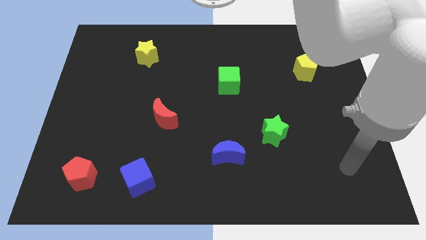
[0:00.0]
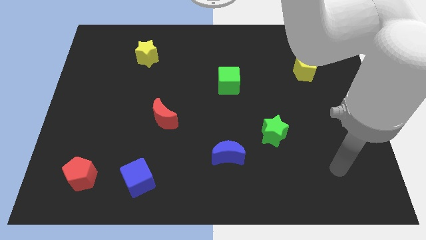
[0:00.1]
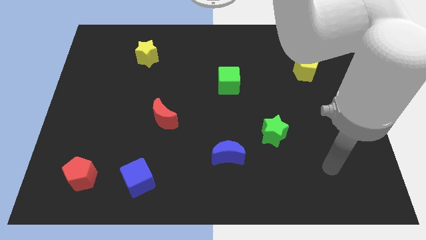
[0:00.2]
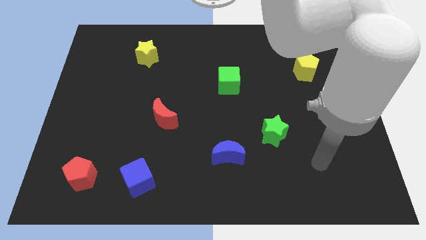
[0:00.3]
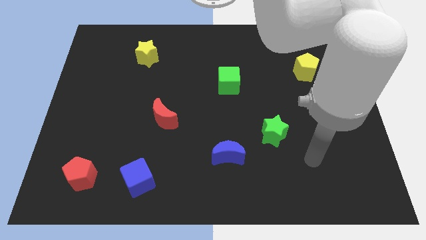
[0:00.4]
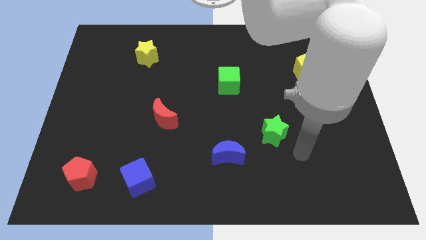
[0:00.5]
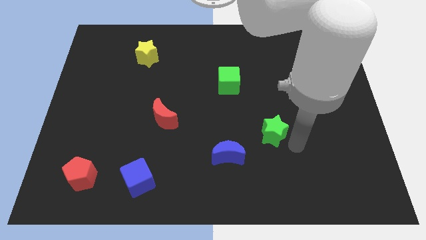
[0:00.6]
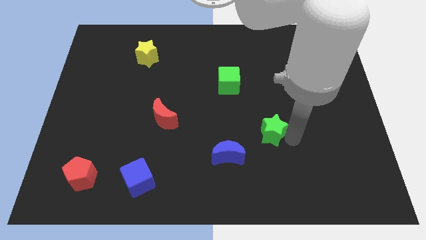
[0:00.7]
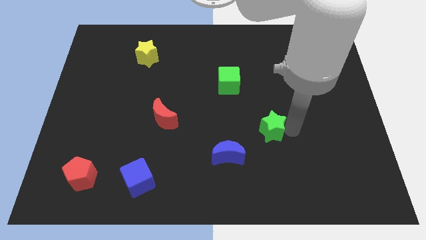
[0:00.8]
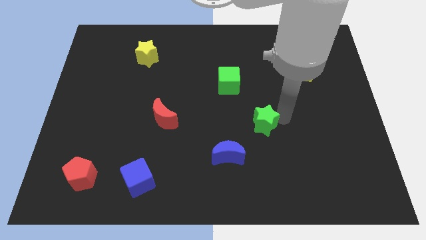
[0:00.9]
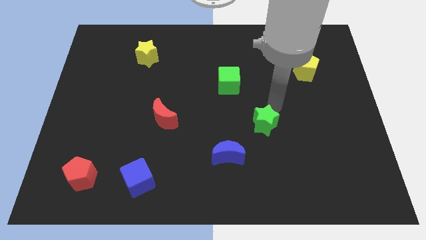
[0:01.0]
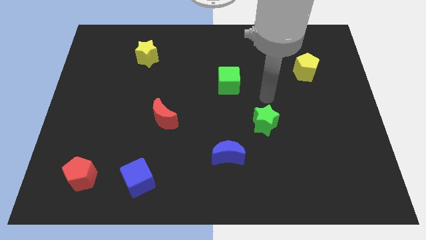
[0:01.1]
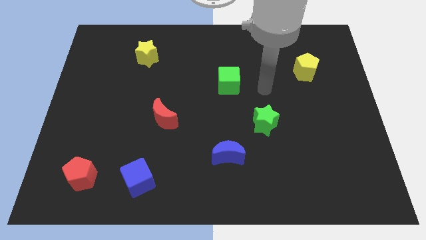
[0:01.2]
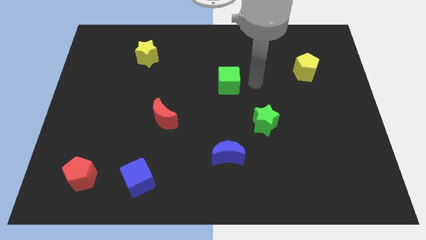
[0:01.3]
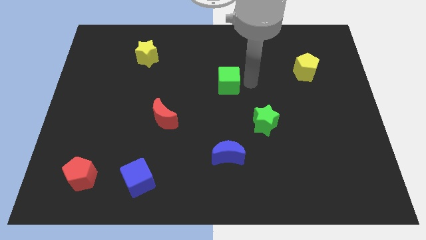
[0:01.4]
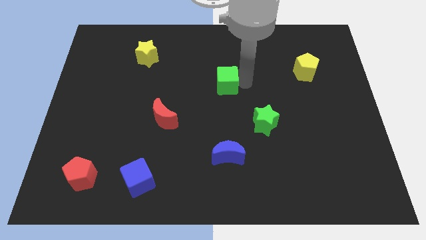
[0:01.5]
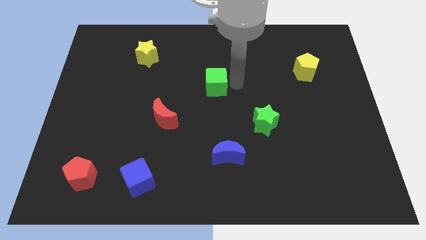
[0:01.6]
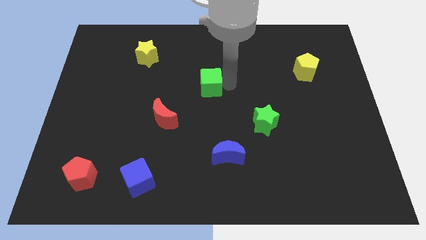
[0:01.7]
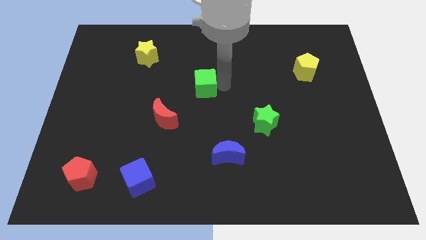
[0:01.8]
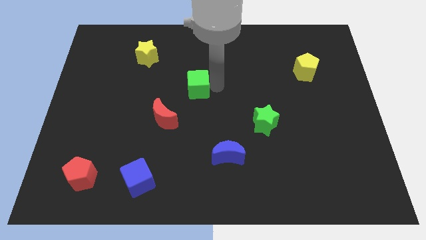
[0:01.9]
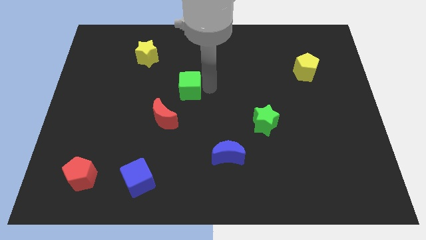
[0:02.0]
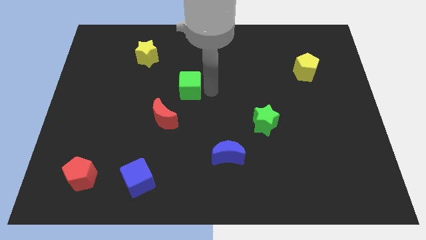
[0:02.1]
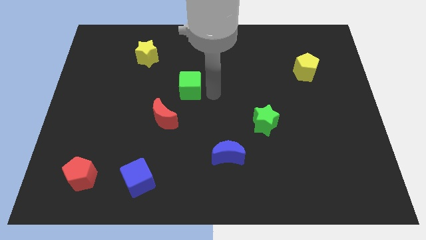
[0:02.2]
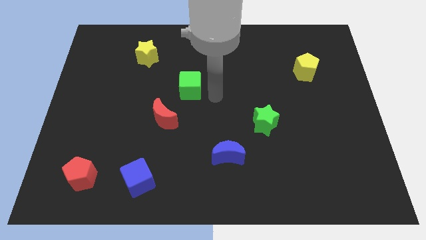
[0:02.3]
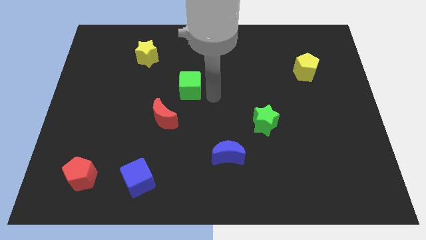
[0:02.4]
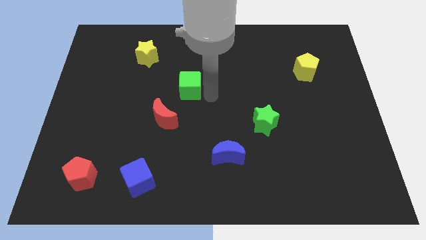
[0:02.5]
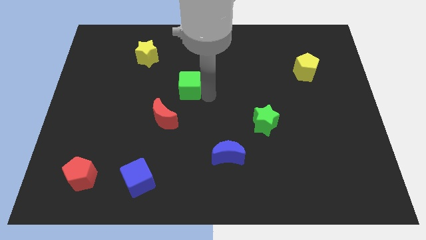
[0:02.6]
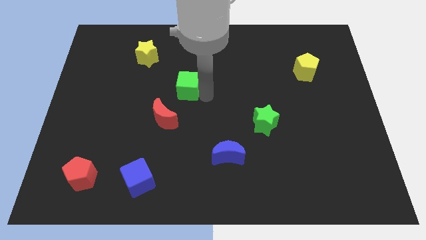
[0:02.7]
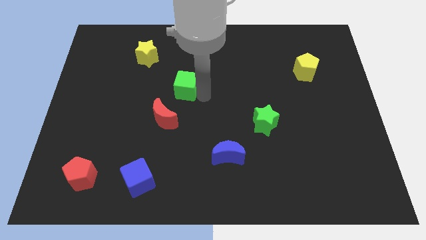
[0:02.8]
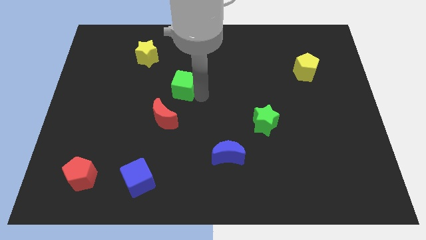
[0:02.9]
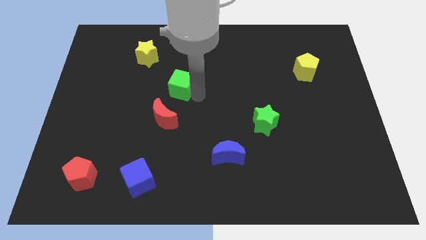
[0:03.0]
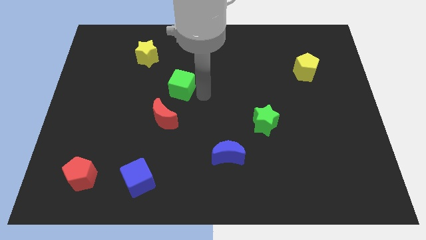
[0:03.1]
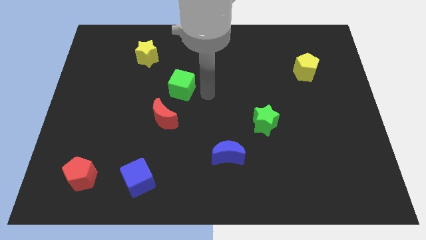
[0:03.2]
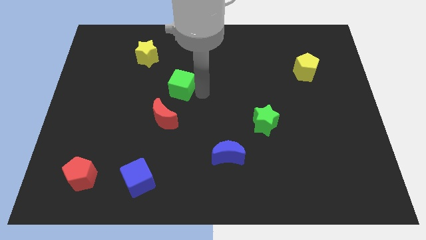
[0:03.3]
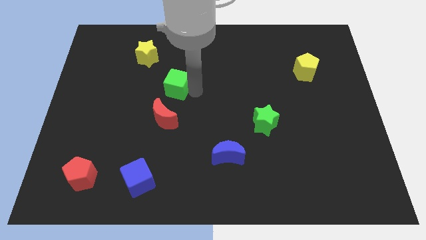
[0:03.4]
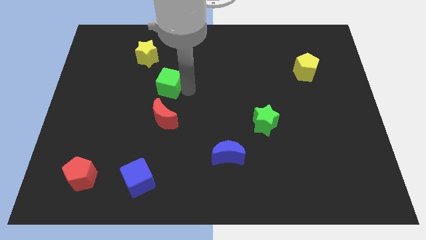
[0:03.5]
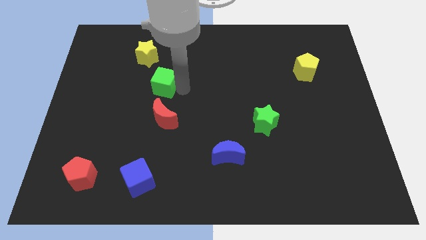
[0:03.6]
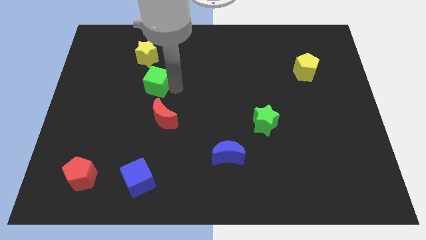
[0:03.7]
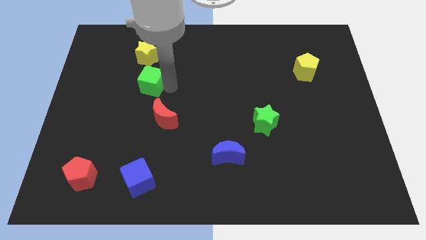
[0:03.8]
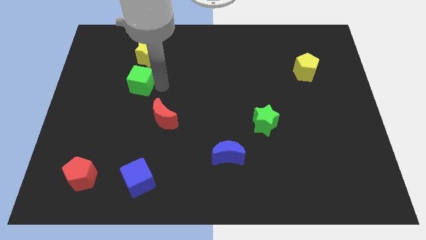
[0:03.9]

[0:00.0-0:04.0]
move the green cube to the left

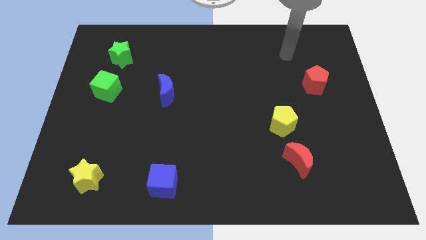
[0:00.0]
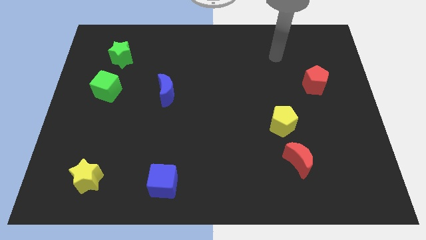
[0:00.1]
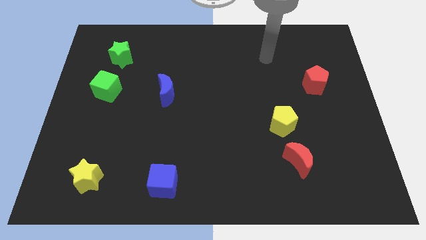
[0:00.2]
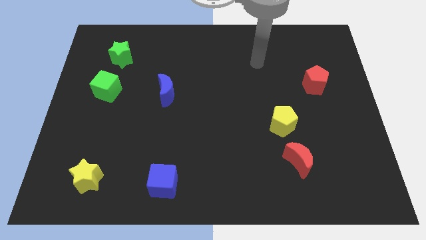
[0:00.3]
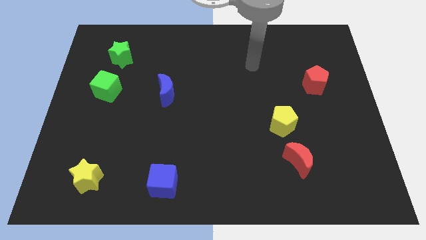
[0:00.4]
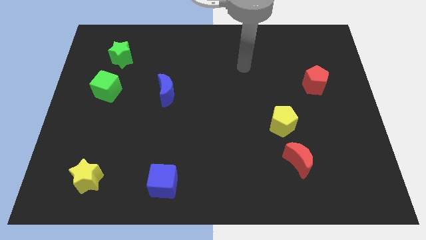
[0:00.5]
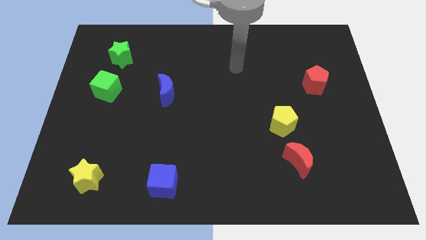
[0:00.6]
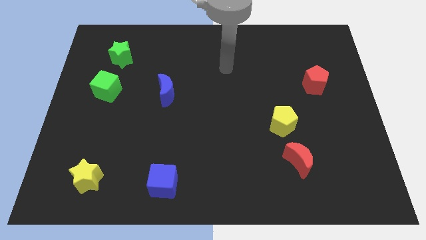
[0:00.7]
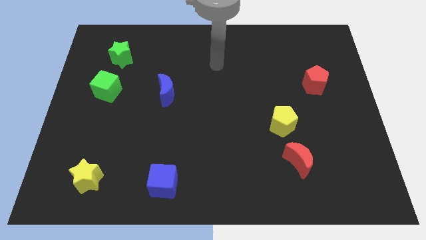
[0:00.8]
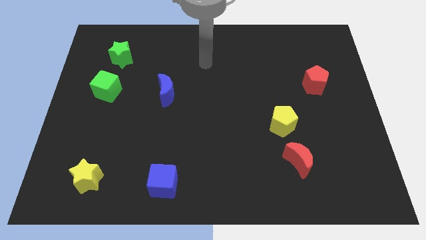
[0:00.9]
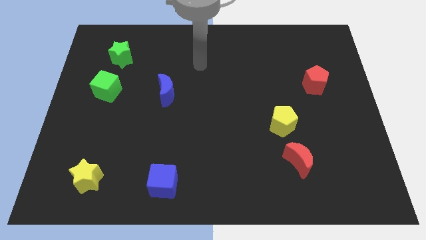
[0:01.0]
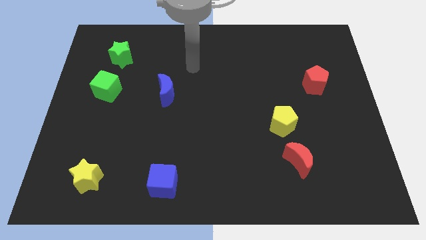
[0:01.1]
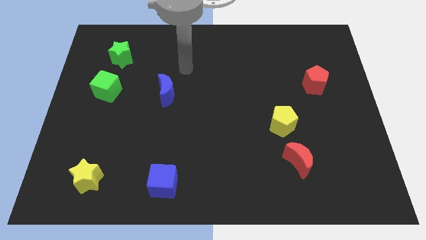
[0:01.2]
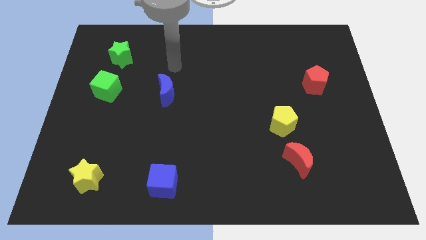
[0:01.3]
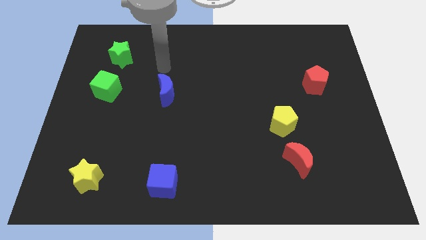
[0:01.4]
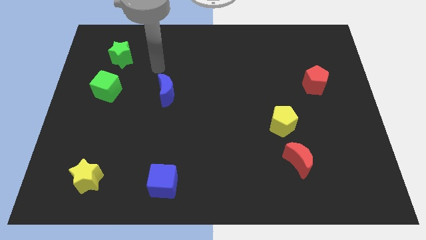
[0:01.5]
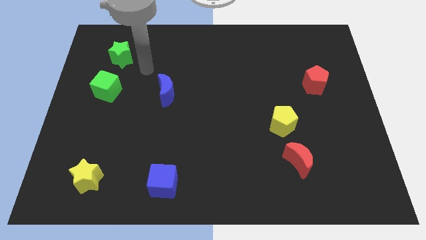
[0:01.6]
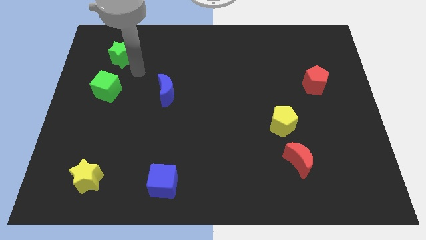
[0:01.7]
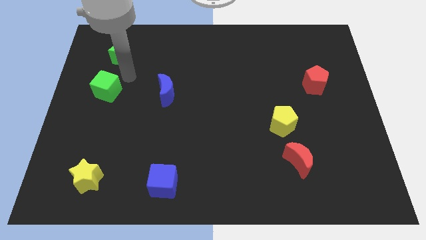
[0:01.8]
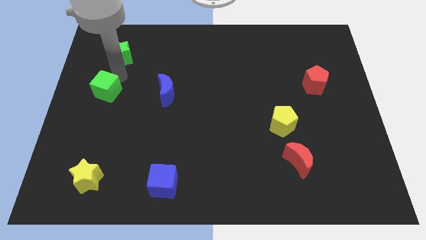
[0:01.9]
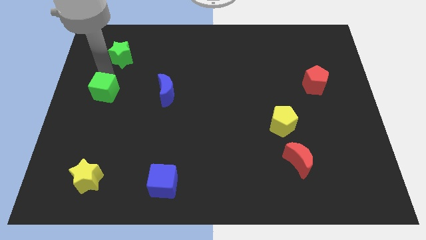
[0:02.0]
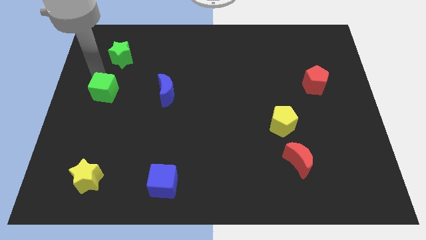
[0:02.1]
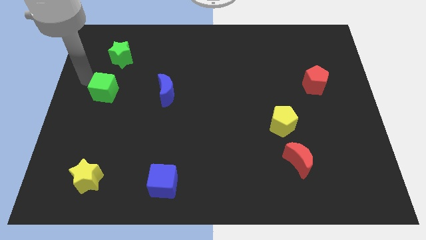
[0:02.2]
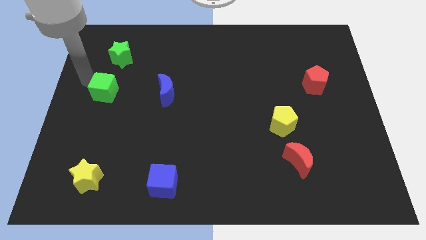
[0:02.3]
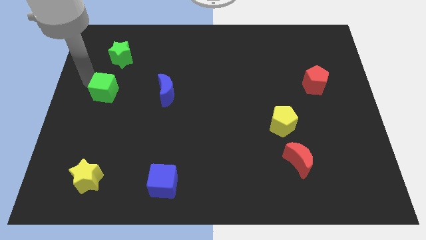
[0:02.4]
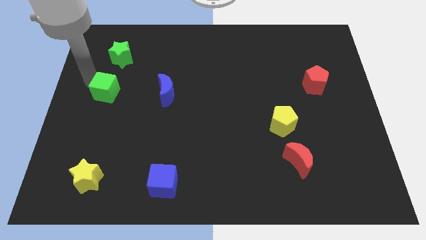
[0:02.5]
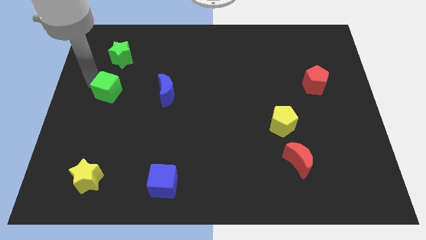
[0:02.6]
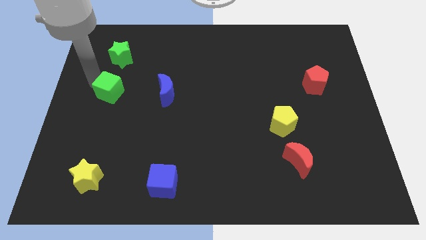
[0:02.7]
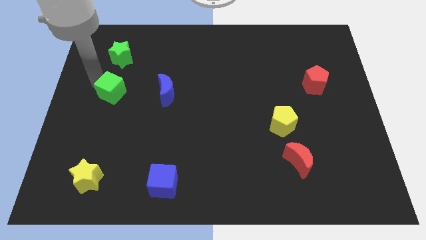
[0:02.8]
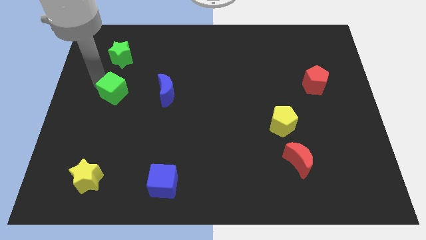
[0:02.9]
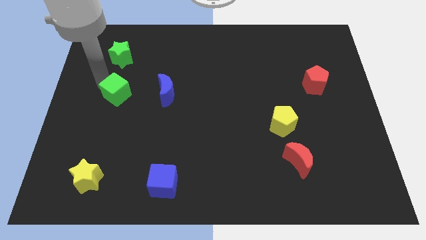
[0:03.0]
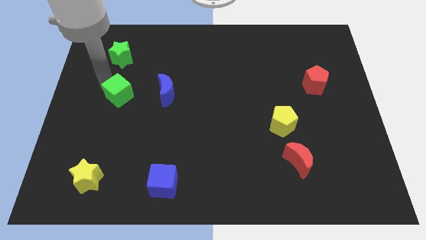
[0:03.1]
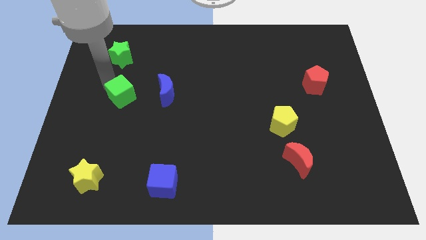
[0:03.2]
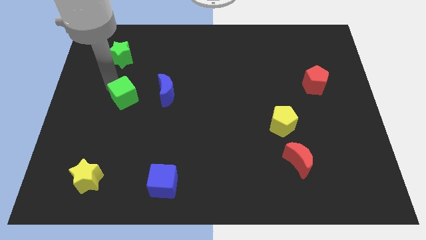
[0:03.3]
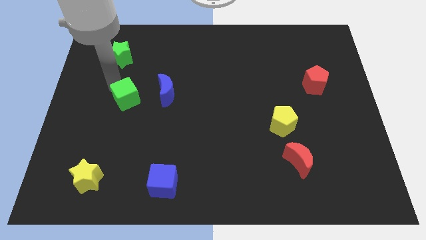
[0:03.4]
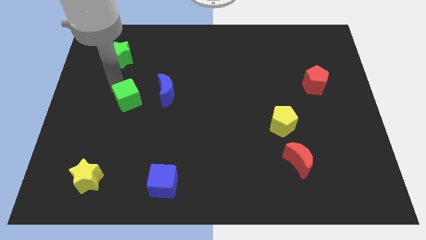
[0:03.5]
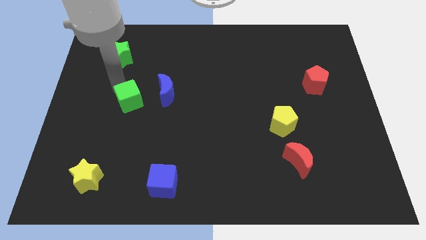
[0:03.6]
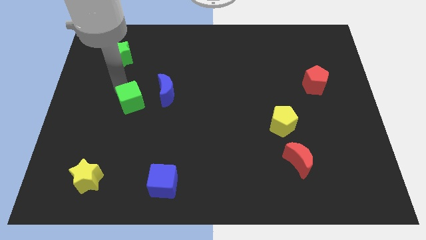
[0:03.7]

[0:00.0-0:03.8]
move the green cube a little bit downwards and then right

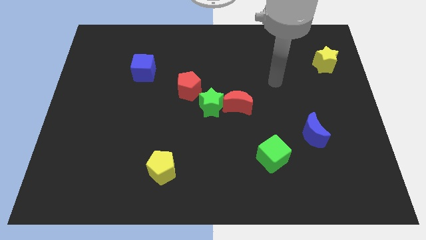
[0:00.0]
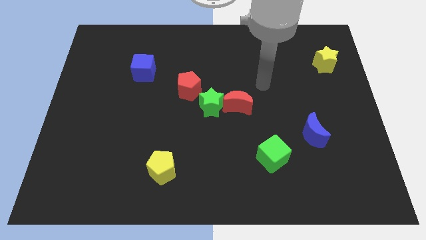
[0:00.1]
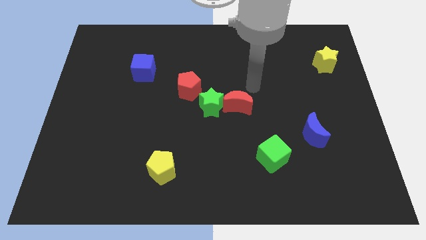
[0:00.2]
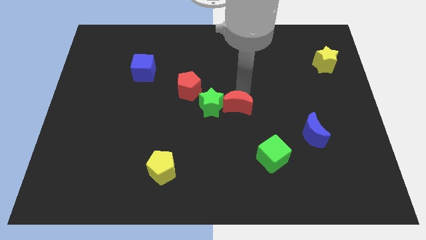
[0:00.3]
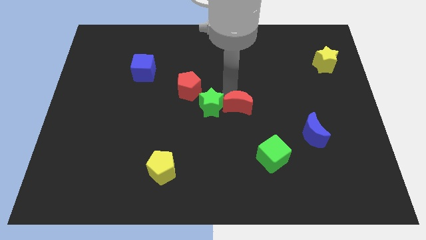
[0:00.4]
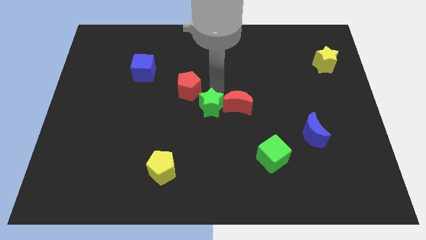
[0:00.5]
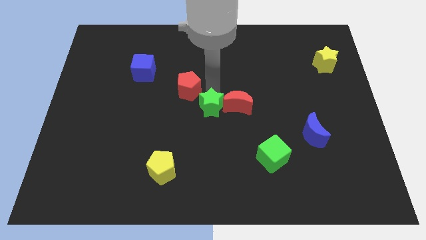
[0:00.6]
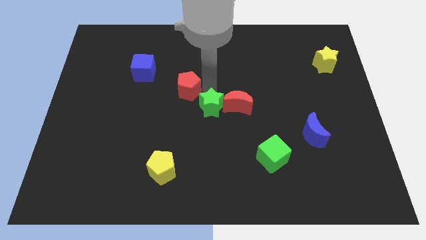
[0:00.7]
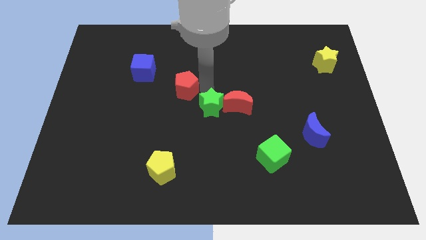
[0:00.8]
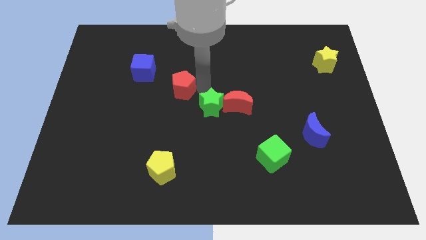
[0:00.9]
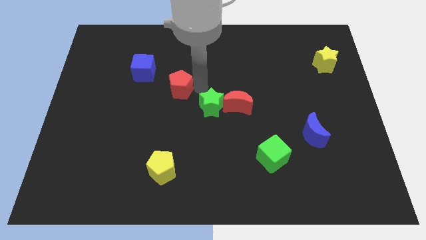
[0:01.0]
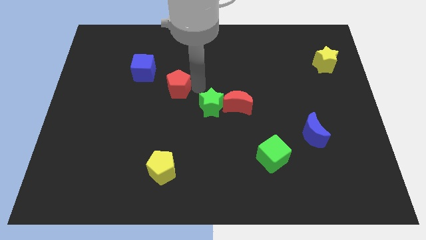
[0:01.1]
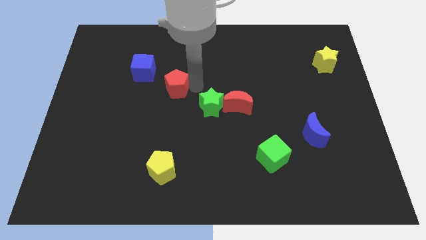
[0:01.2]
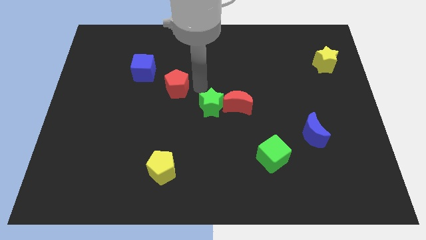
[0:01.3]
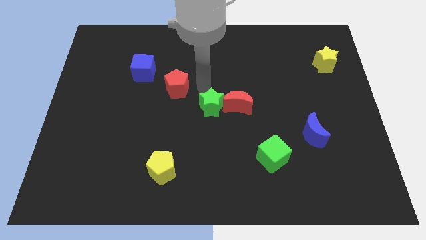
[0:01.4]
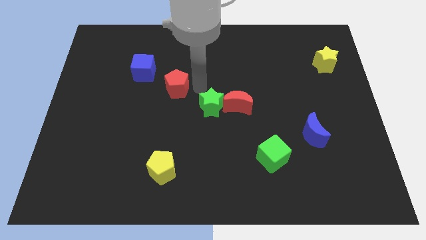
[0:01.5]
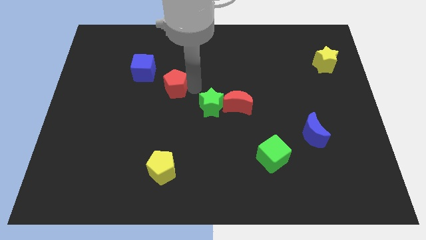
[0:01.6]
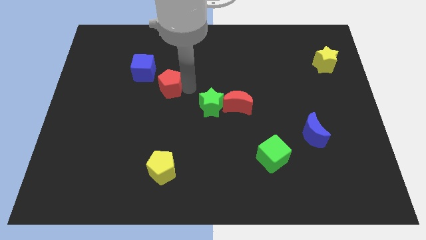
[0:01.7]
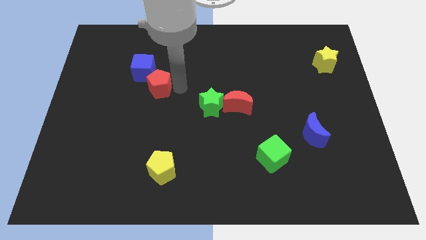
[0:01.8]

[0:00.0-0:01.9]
slide the red pentagon slightly left
